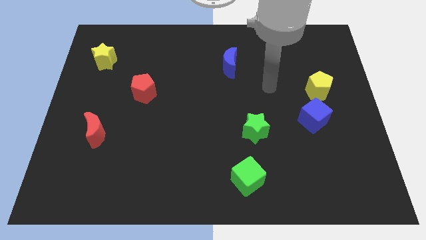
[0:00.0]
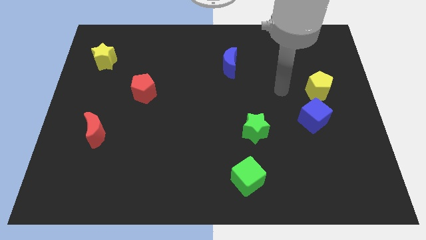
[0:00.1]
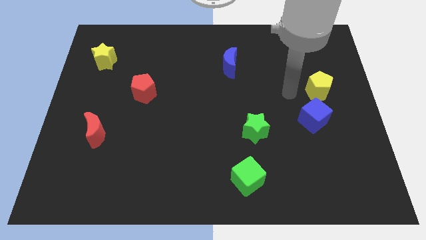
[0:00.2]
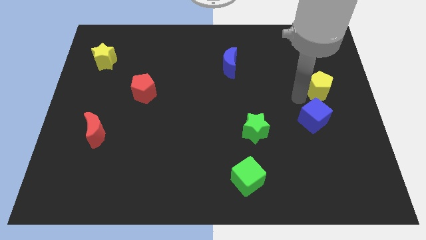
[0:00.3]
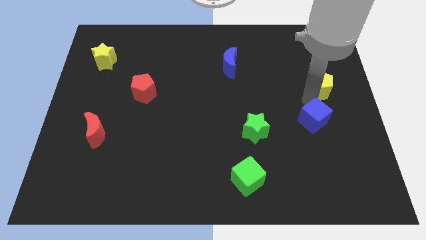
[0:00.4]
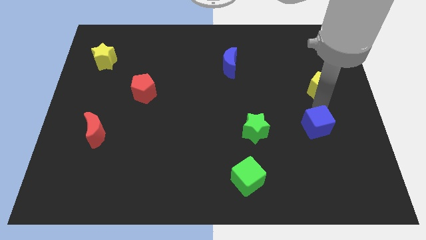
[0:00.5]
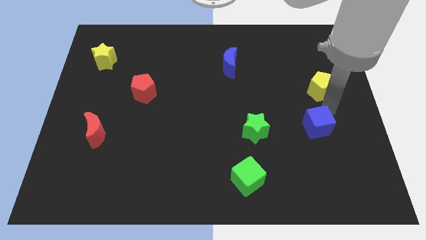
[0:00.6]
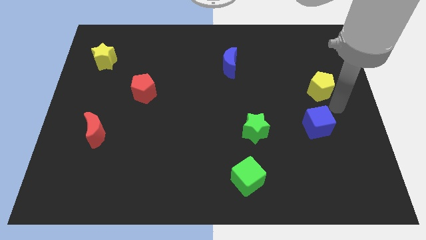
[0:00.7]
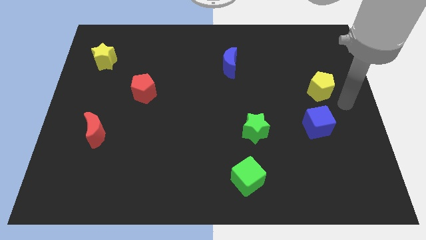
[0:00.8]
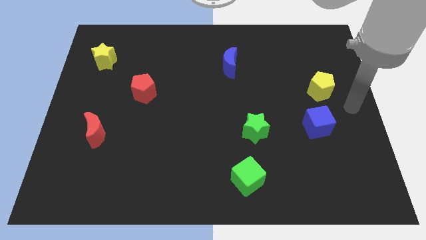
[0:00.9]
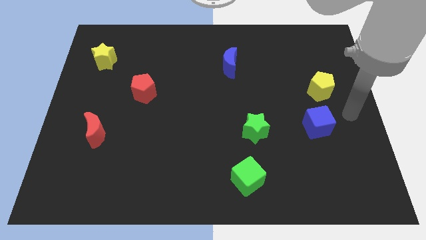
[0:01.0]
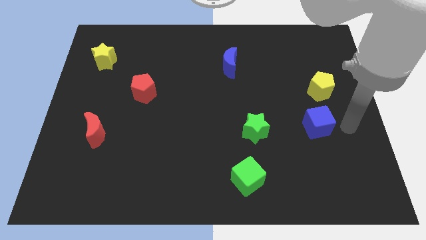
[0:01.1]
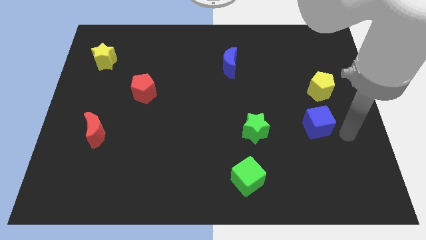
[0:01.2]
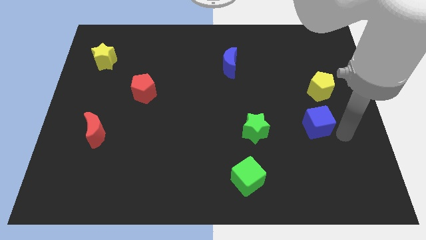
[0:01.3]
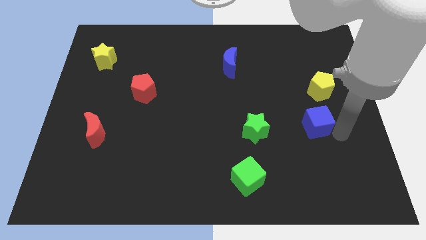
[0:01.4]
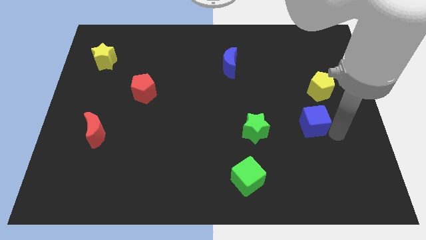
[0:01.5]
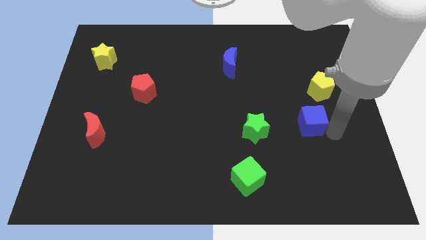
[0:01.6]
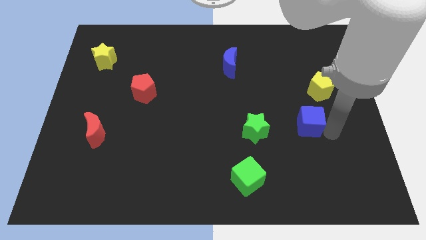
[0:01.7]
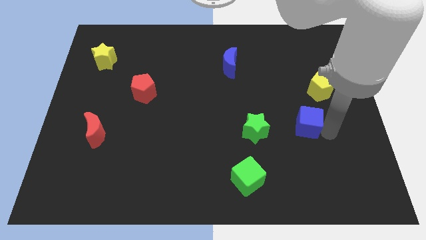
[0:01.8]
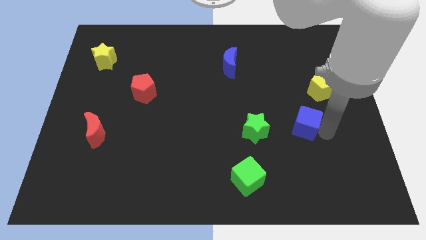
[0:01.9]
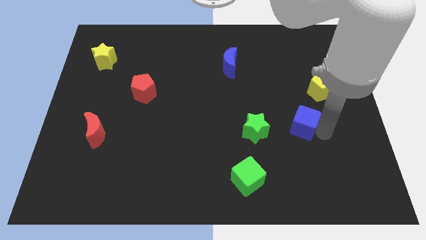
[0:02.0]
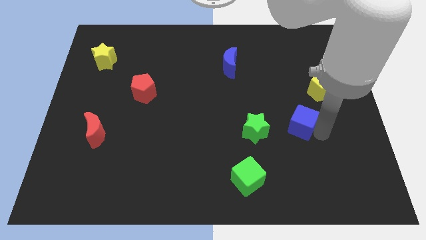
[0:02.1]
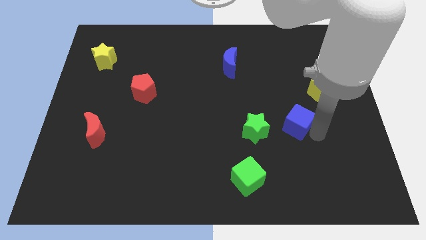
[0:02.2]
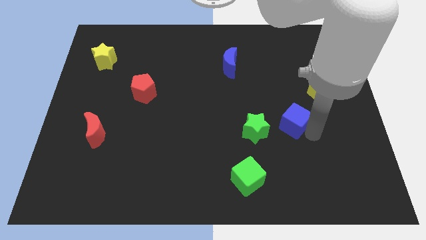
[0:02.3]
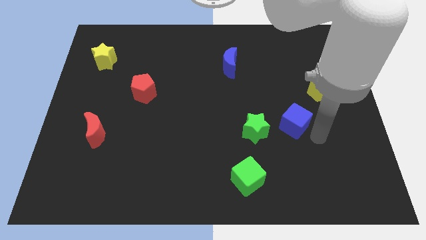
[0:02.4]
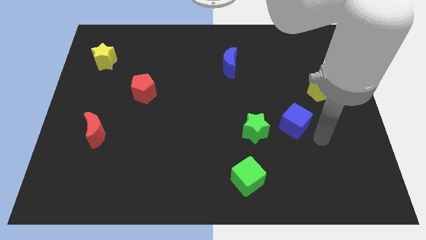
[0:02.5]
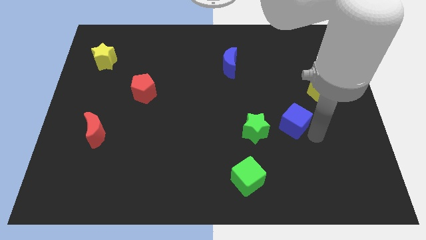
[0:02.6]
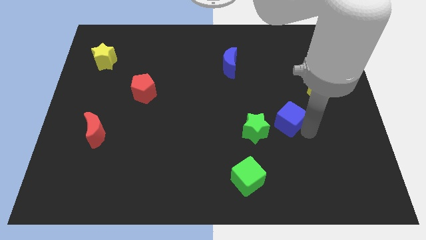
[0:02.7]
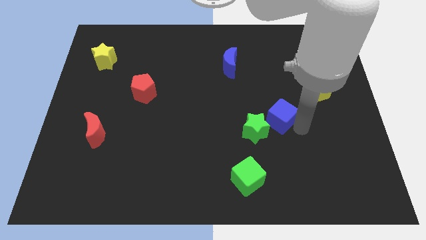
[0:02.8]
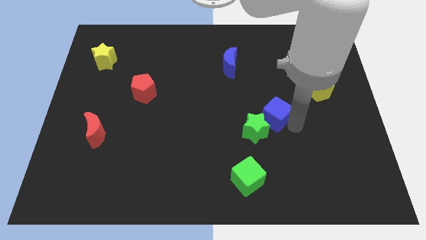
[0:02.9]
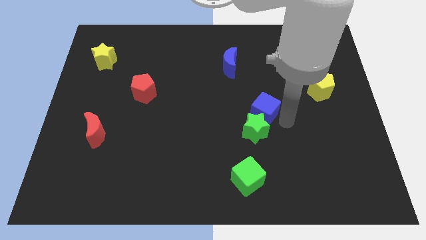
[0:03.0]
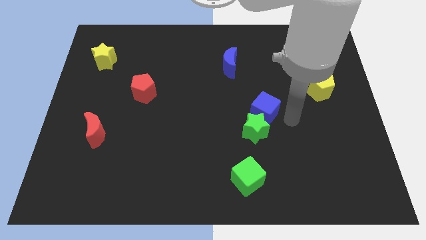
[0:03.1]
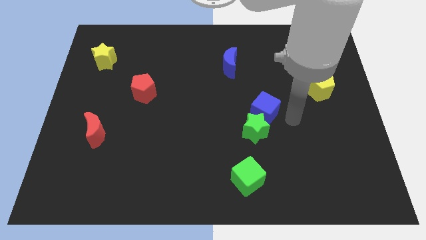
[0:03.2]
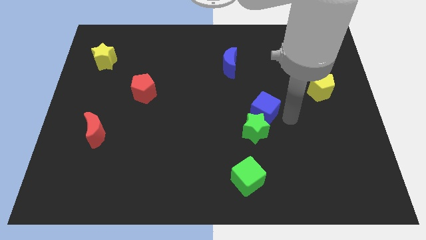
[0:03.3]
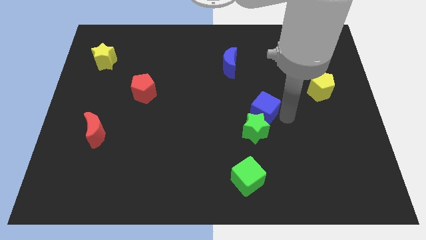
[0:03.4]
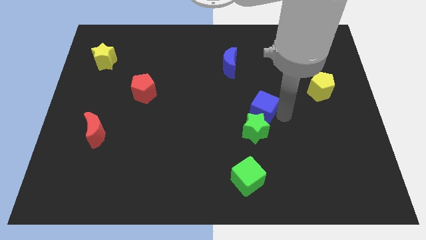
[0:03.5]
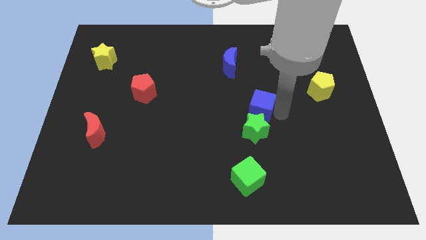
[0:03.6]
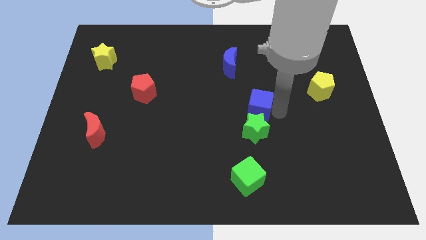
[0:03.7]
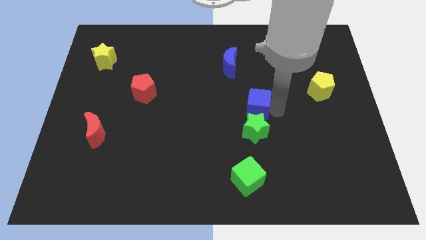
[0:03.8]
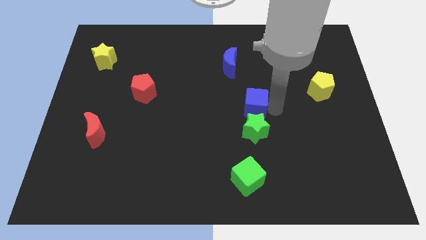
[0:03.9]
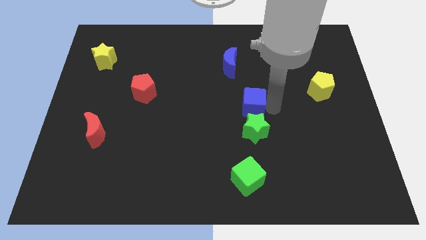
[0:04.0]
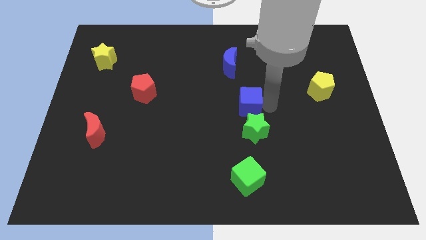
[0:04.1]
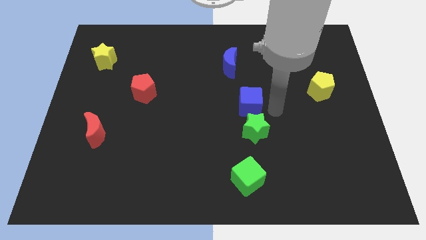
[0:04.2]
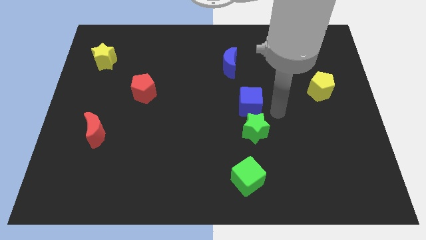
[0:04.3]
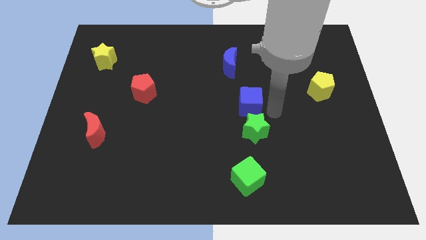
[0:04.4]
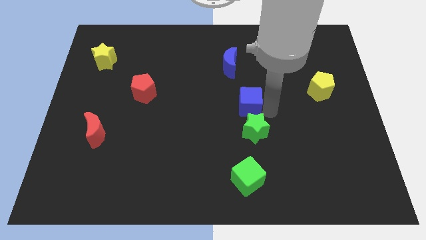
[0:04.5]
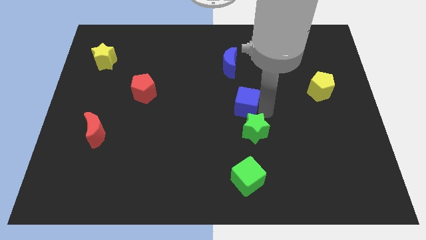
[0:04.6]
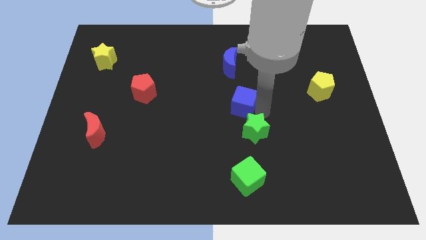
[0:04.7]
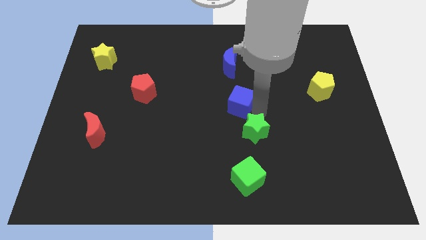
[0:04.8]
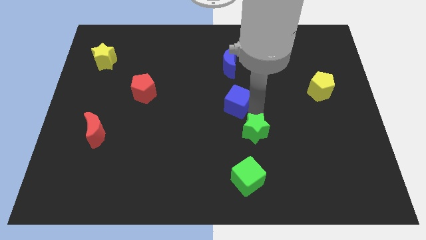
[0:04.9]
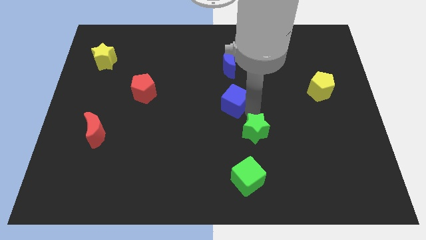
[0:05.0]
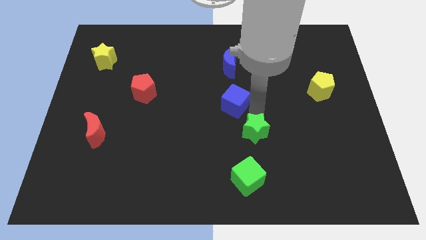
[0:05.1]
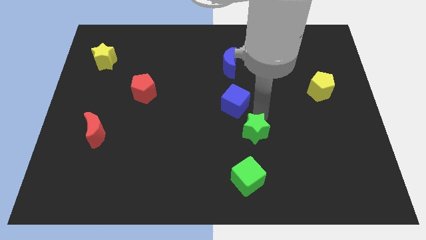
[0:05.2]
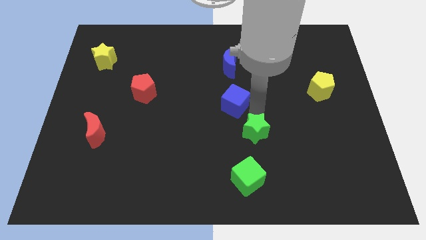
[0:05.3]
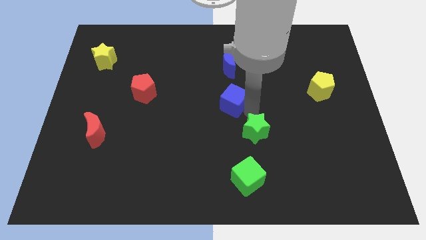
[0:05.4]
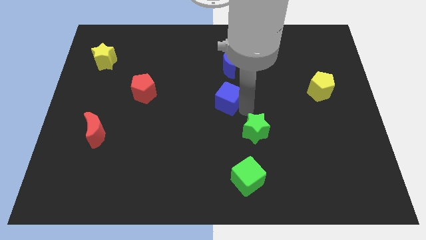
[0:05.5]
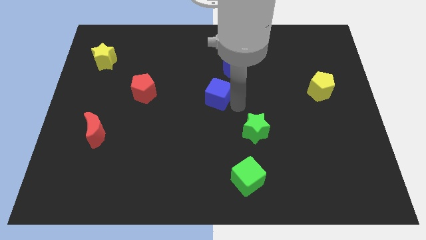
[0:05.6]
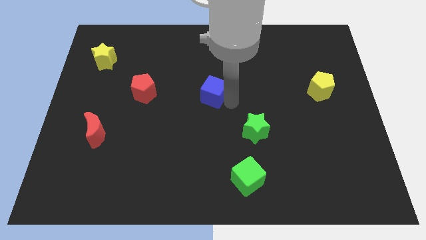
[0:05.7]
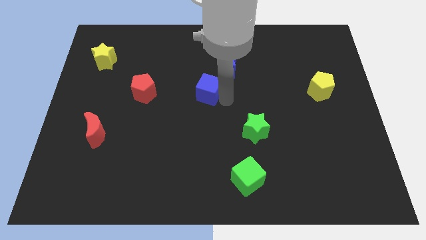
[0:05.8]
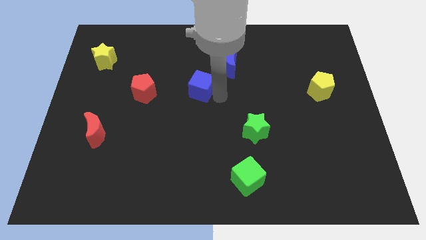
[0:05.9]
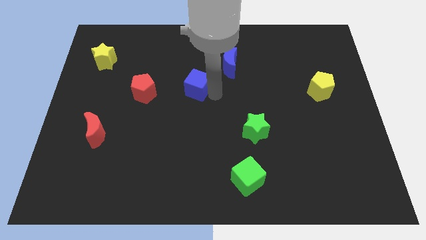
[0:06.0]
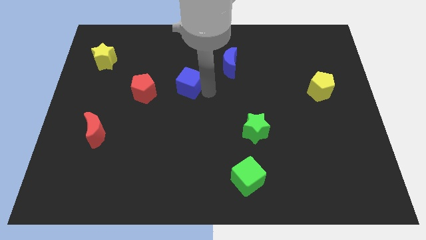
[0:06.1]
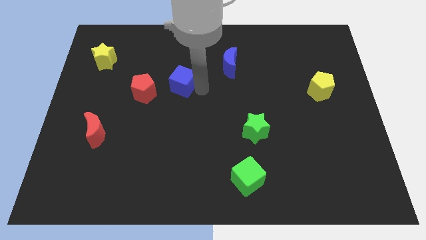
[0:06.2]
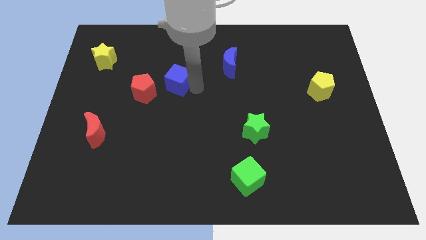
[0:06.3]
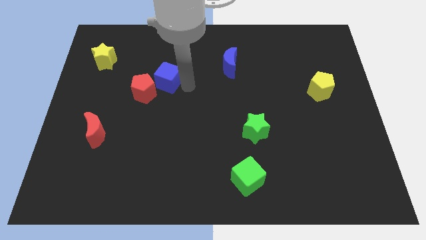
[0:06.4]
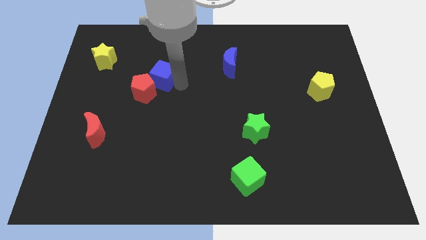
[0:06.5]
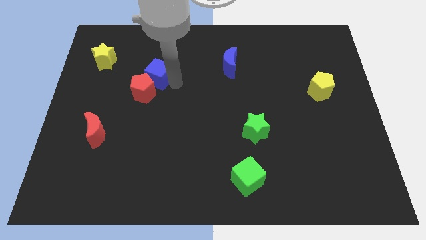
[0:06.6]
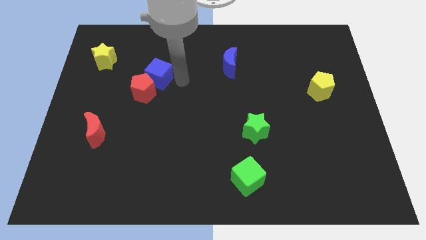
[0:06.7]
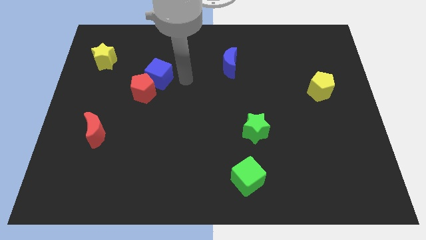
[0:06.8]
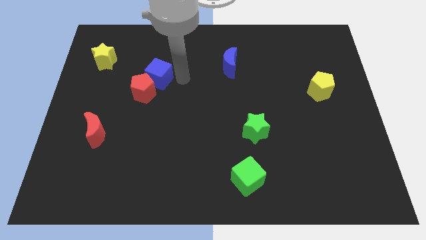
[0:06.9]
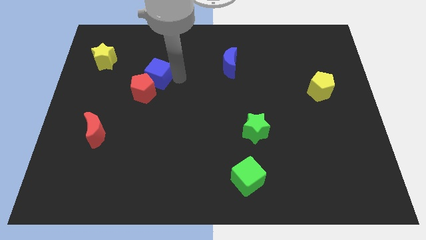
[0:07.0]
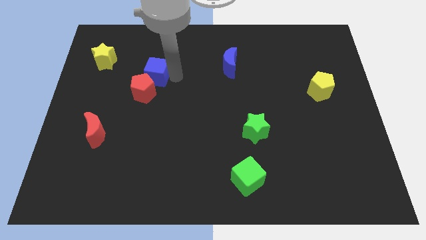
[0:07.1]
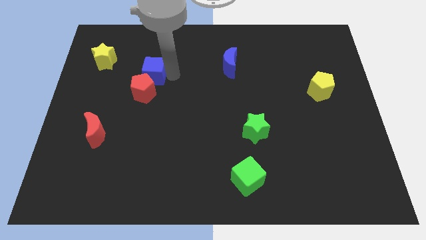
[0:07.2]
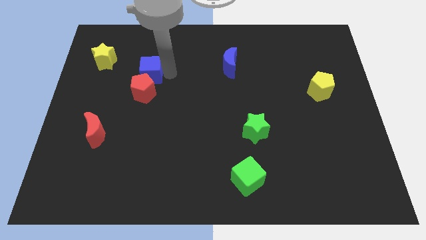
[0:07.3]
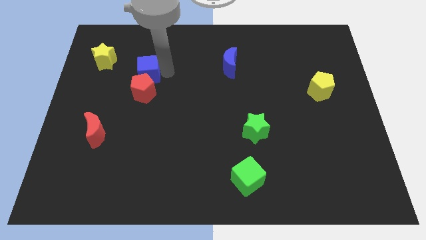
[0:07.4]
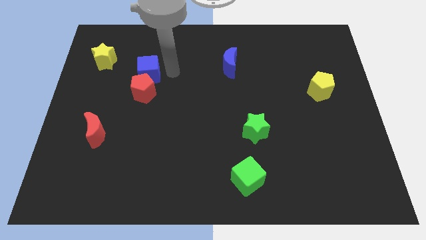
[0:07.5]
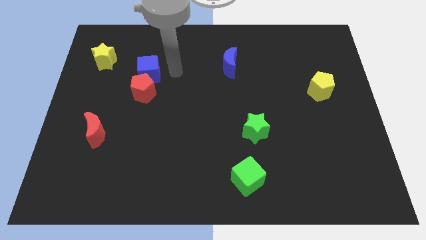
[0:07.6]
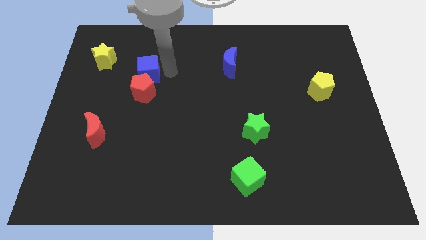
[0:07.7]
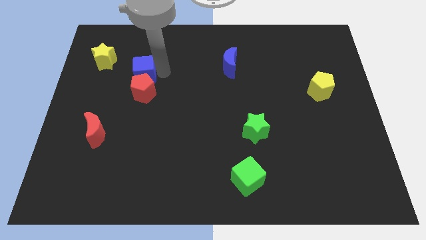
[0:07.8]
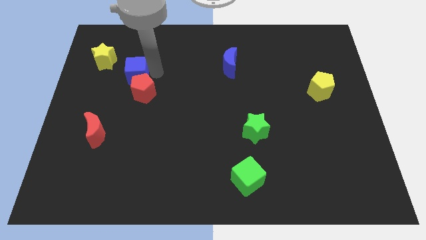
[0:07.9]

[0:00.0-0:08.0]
move the blue cube to the bottom right side of the yellow star

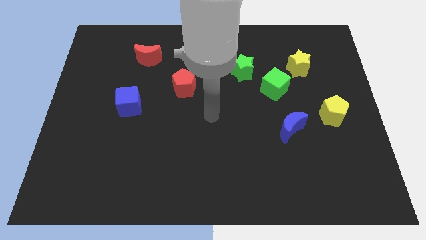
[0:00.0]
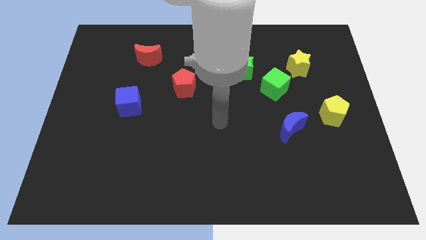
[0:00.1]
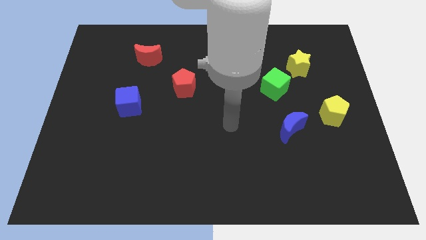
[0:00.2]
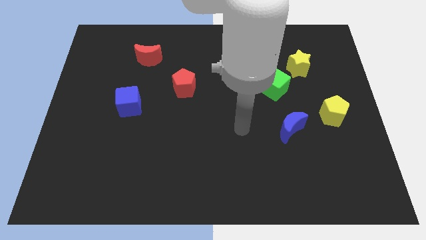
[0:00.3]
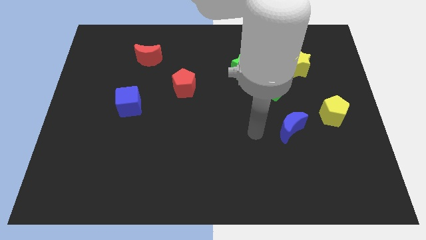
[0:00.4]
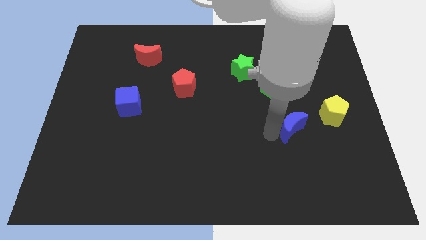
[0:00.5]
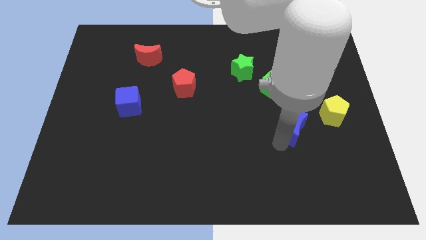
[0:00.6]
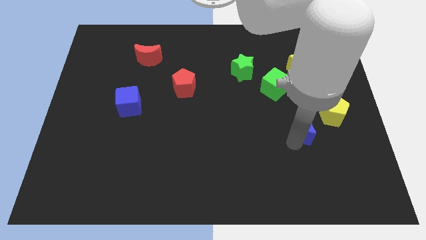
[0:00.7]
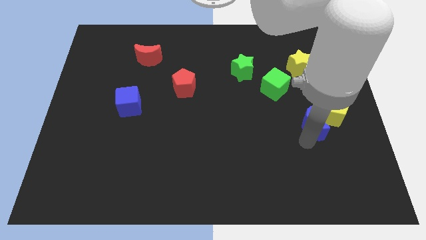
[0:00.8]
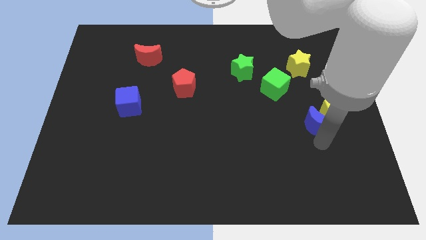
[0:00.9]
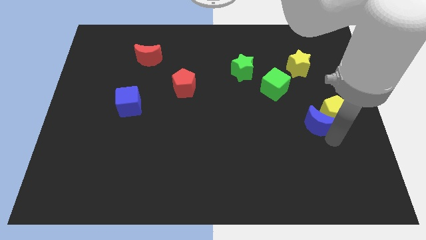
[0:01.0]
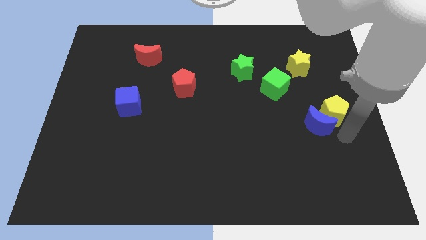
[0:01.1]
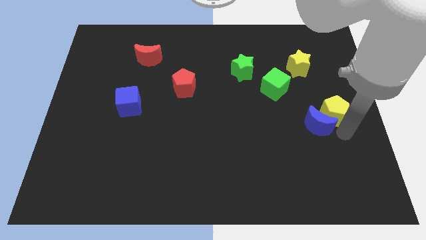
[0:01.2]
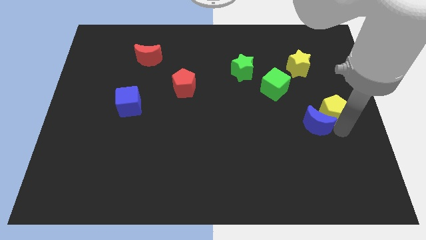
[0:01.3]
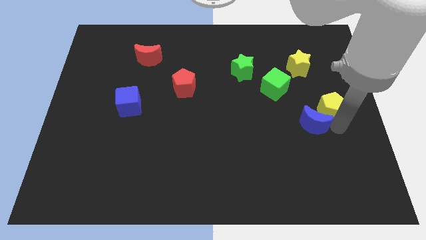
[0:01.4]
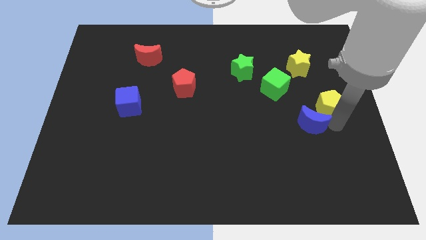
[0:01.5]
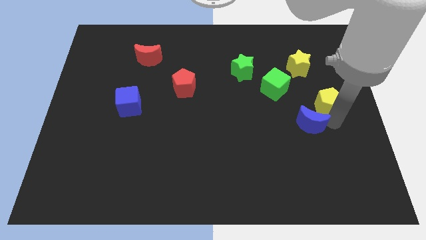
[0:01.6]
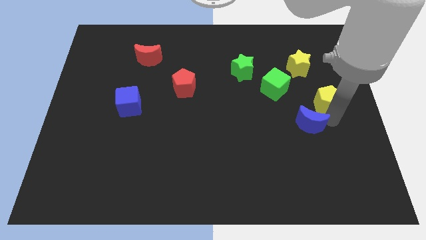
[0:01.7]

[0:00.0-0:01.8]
put the yellow pentagon just right of the green cube
